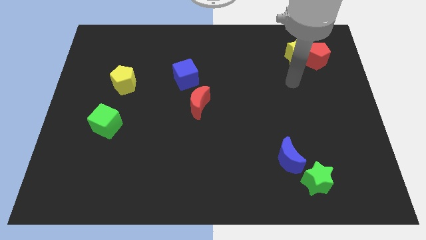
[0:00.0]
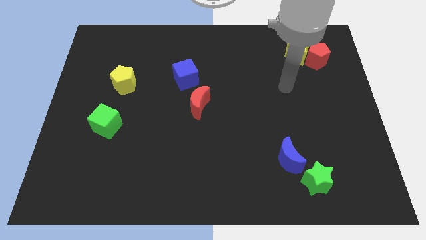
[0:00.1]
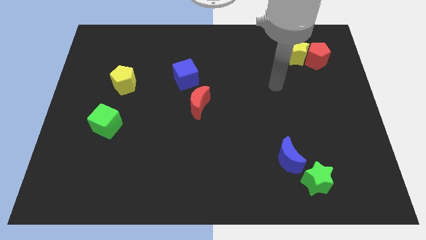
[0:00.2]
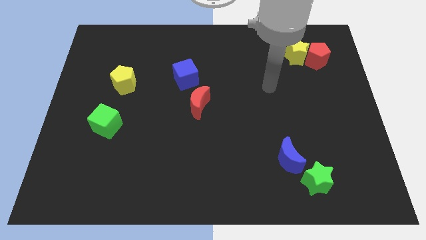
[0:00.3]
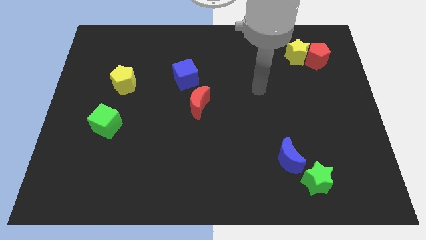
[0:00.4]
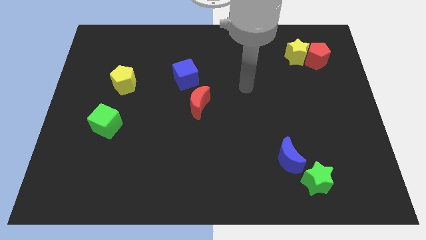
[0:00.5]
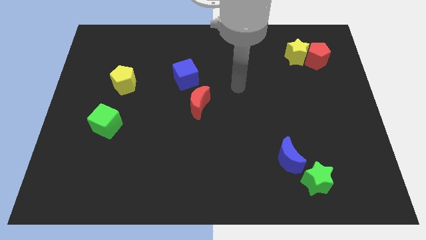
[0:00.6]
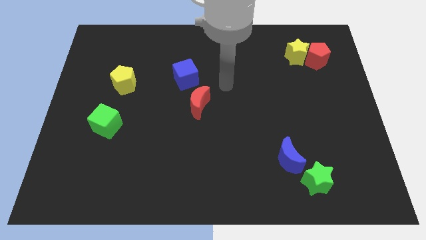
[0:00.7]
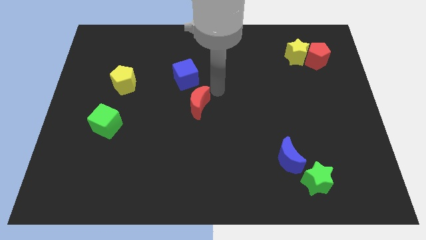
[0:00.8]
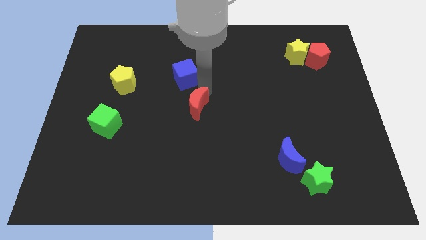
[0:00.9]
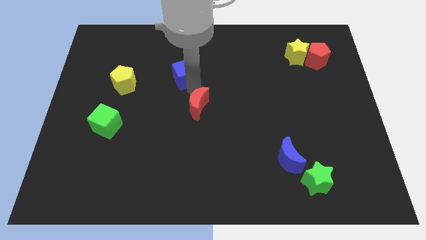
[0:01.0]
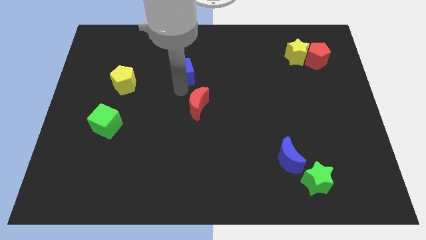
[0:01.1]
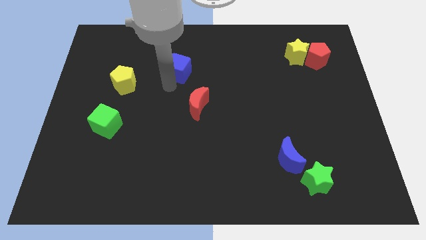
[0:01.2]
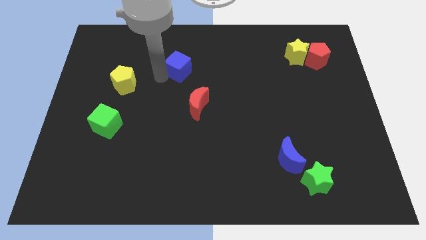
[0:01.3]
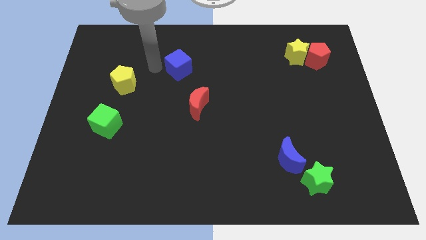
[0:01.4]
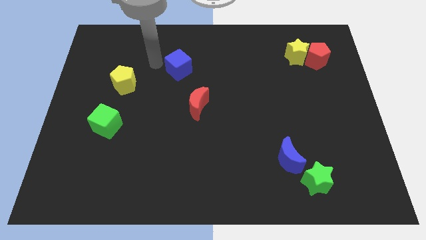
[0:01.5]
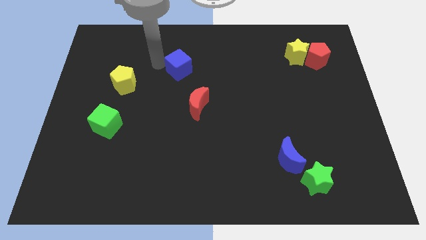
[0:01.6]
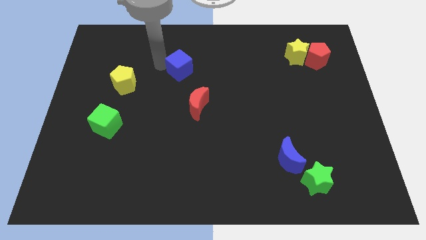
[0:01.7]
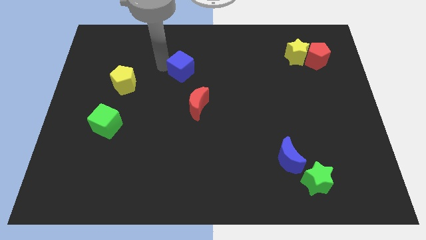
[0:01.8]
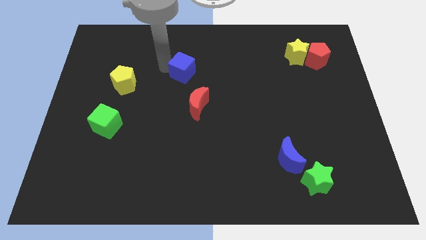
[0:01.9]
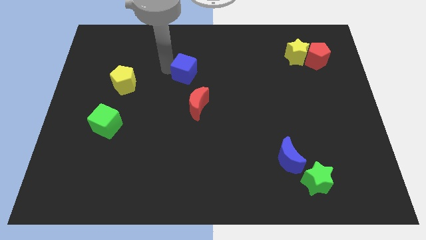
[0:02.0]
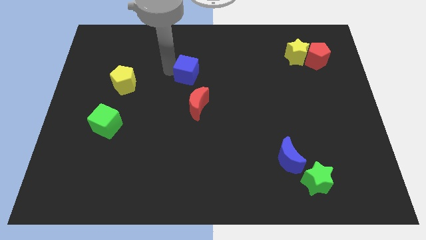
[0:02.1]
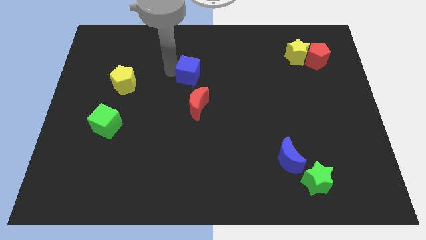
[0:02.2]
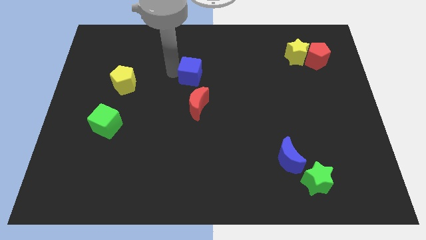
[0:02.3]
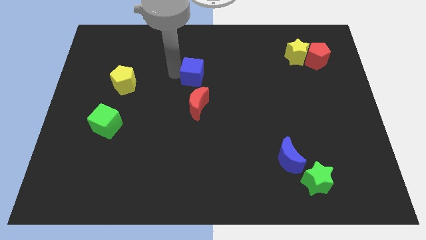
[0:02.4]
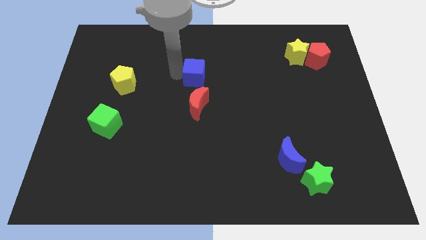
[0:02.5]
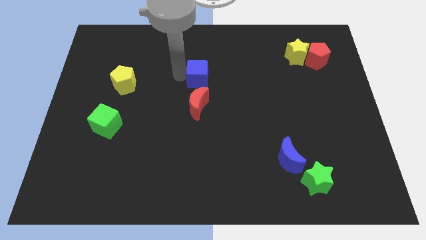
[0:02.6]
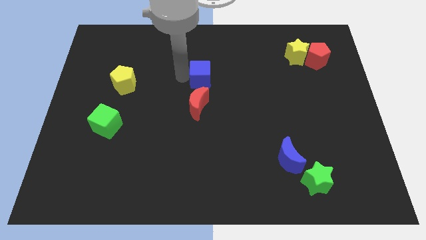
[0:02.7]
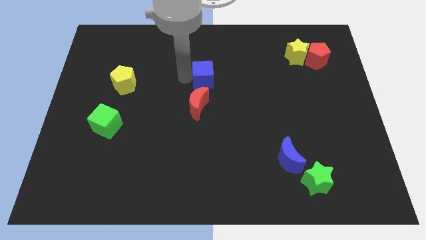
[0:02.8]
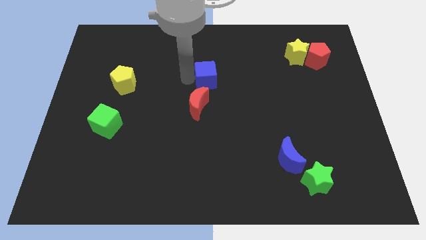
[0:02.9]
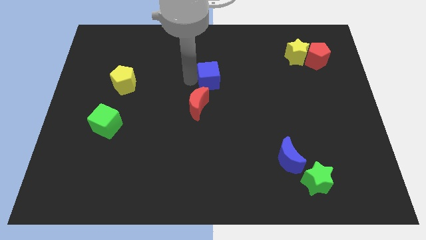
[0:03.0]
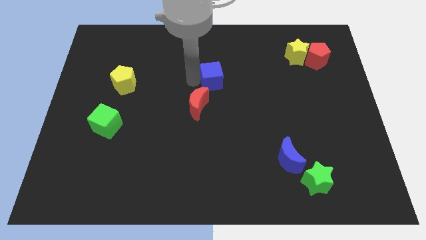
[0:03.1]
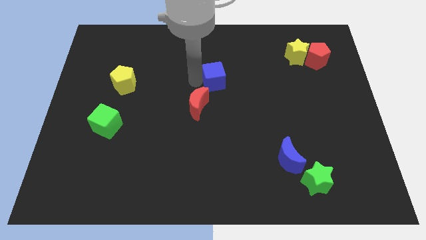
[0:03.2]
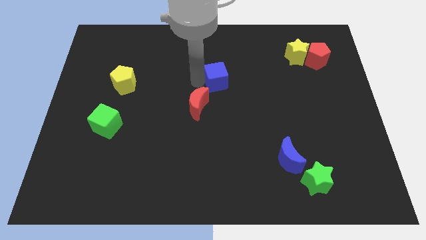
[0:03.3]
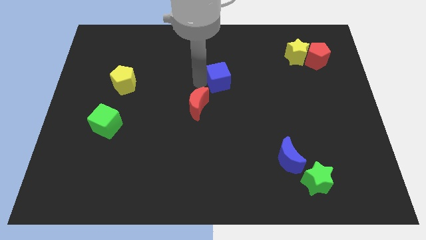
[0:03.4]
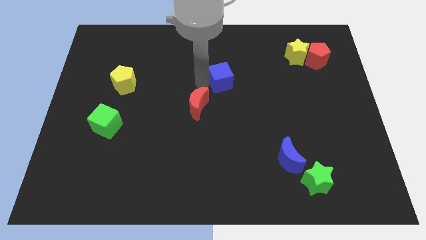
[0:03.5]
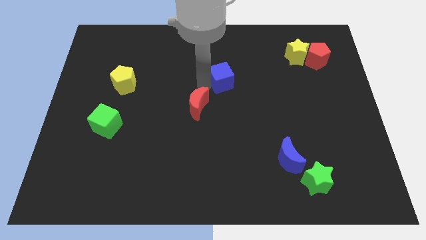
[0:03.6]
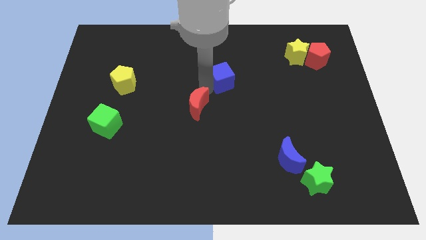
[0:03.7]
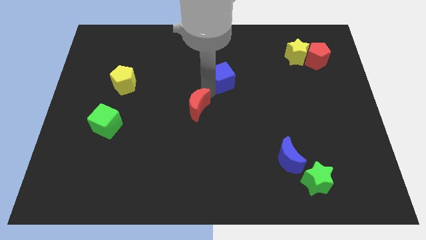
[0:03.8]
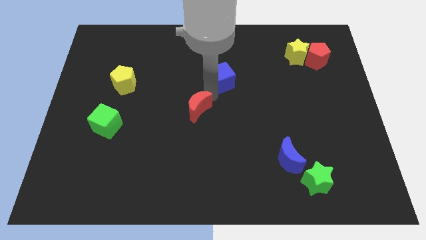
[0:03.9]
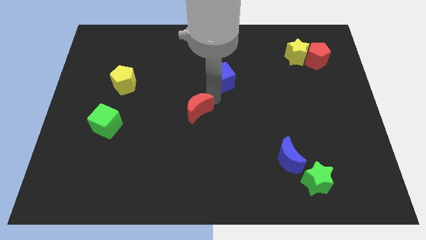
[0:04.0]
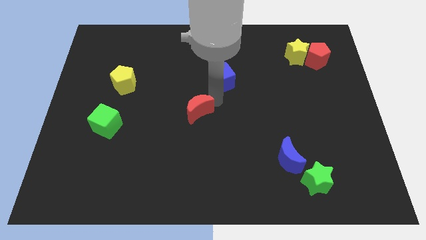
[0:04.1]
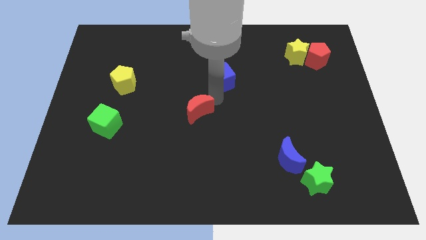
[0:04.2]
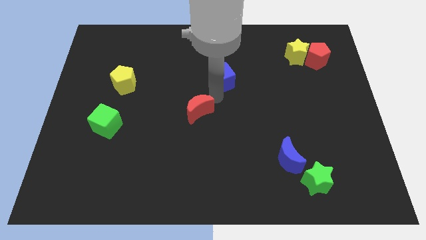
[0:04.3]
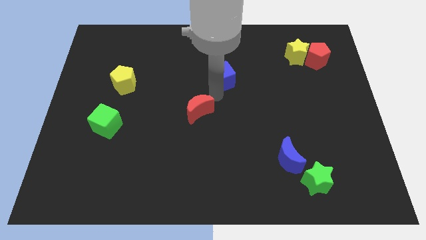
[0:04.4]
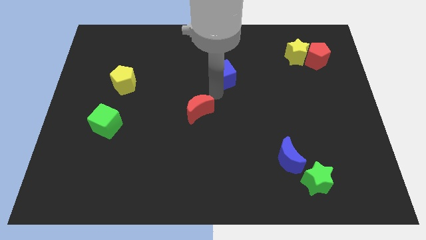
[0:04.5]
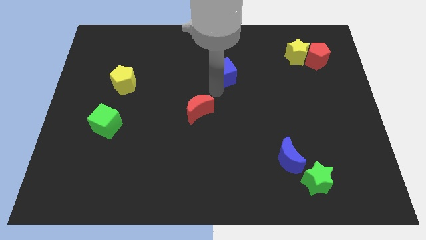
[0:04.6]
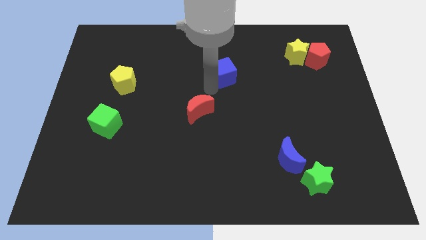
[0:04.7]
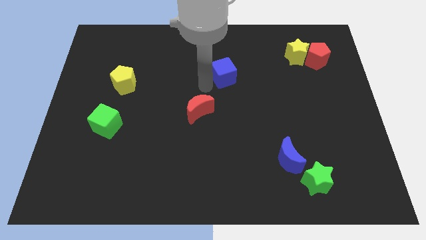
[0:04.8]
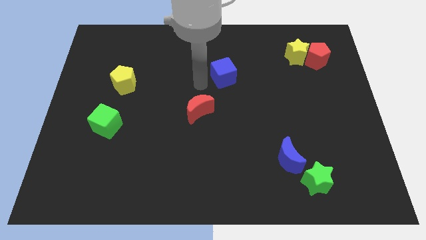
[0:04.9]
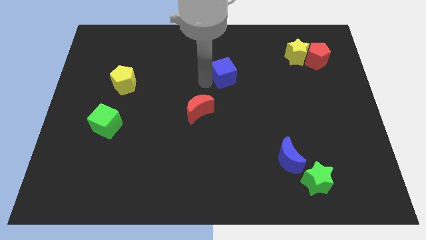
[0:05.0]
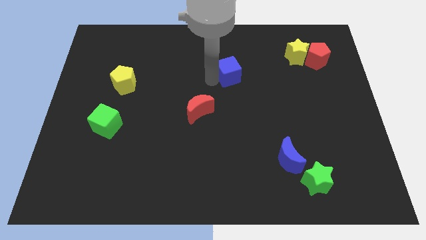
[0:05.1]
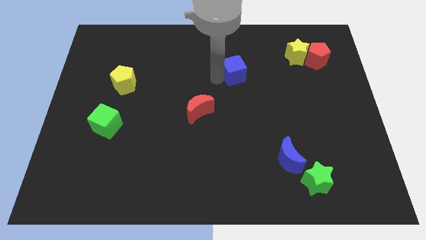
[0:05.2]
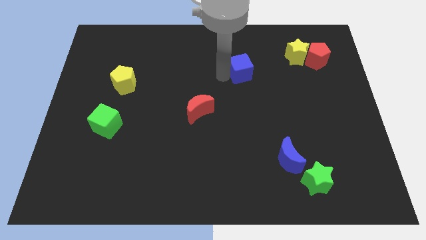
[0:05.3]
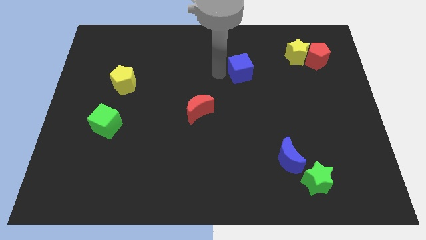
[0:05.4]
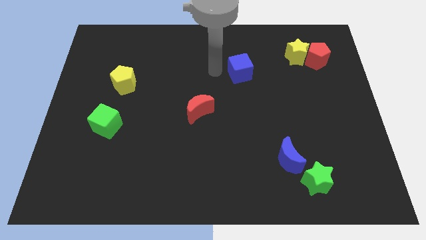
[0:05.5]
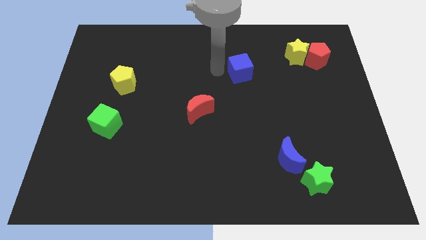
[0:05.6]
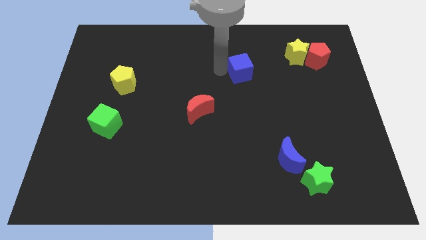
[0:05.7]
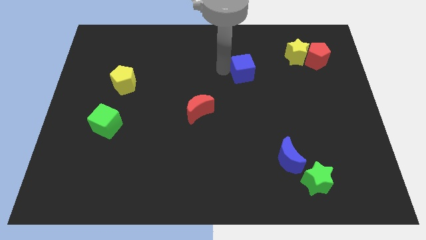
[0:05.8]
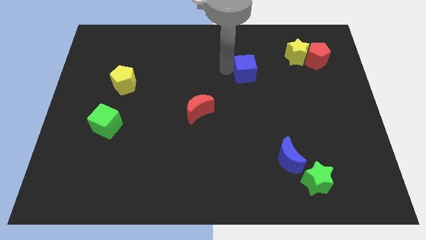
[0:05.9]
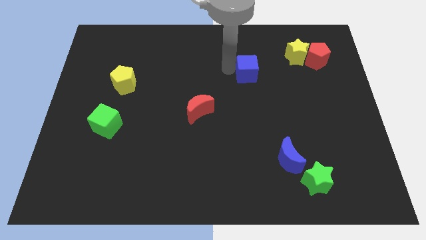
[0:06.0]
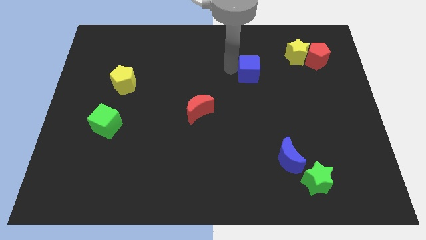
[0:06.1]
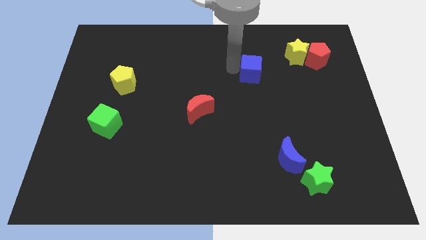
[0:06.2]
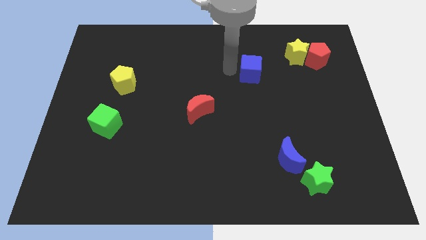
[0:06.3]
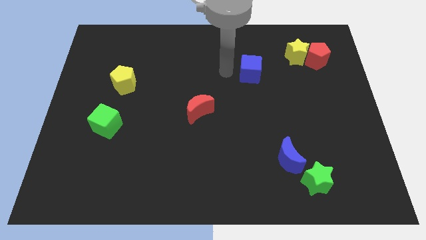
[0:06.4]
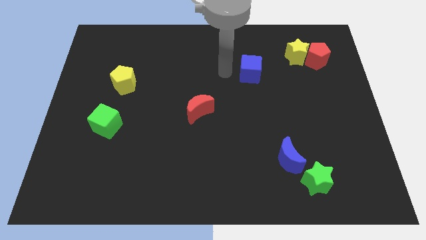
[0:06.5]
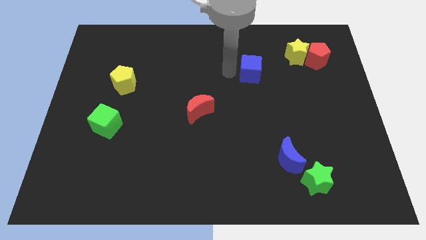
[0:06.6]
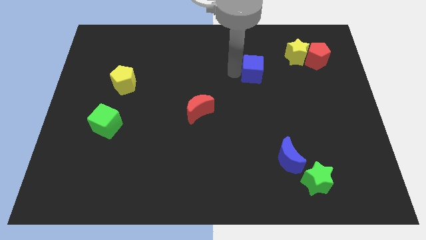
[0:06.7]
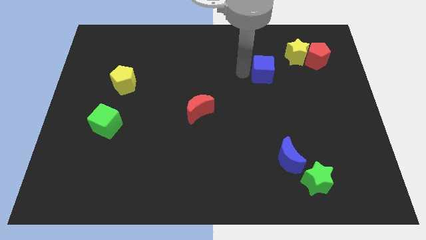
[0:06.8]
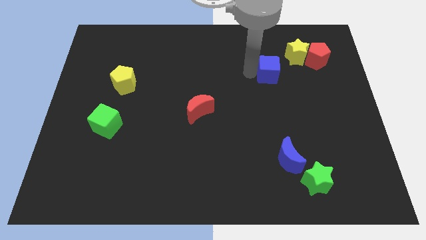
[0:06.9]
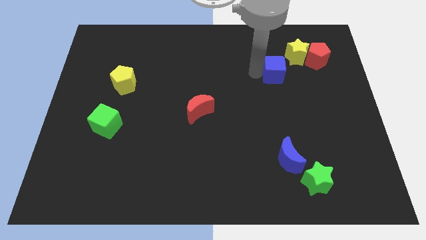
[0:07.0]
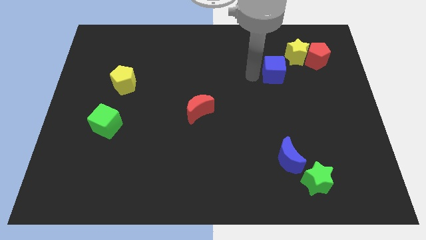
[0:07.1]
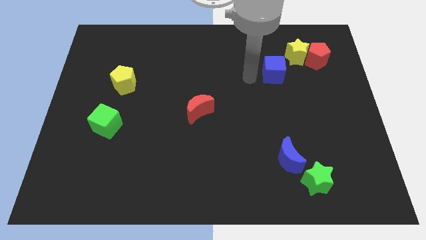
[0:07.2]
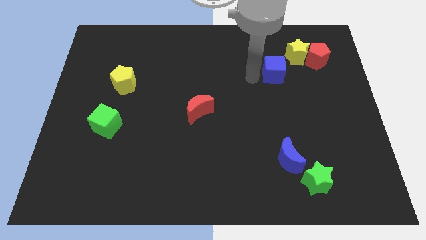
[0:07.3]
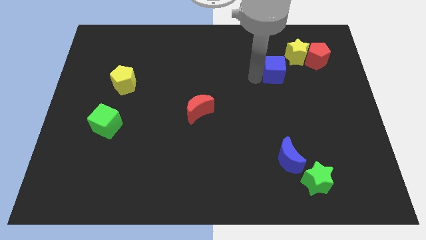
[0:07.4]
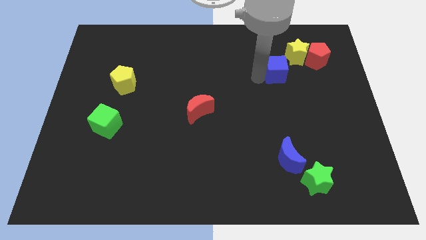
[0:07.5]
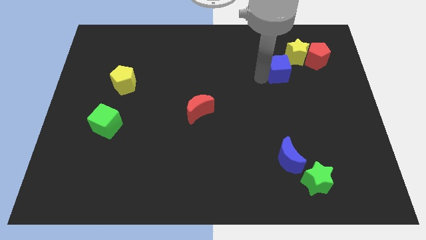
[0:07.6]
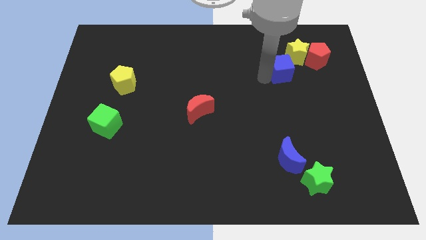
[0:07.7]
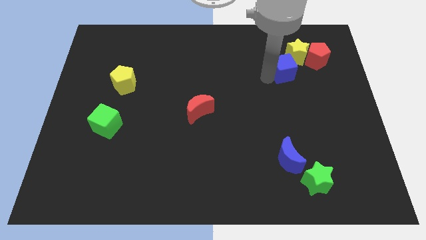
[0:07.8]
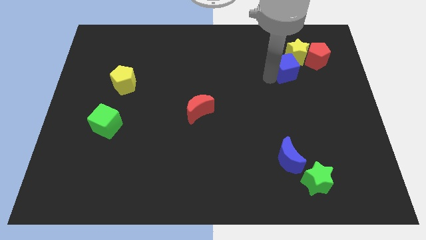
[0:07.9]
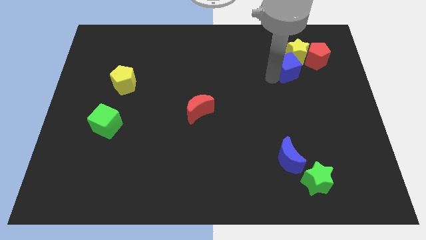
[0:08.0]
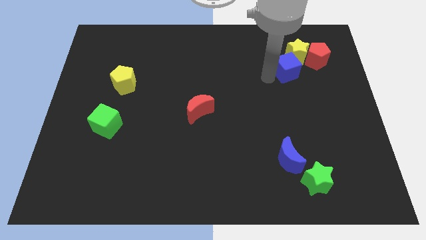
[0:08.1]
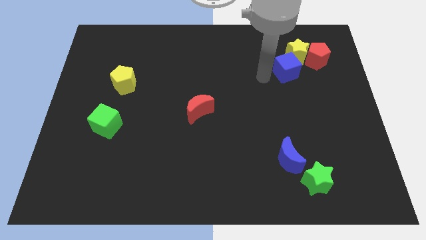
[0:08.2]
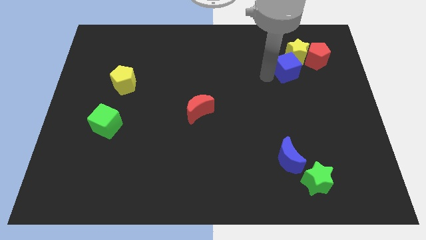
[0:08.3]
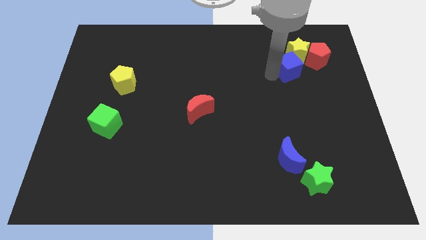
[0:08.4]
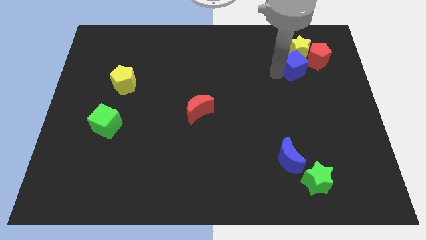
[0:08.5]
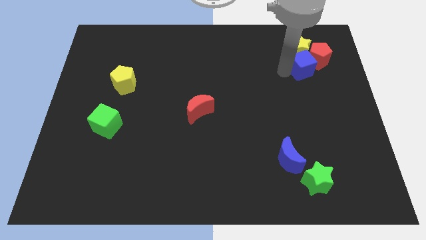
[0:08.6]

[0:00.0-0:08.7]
push the blue cube towards the red pentagon
